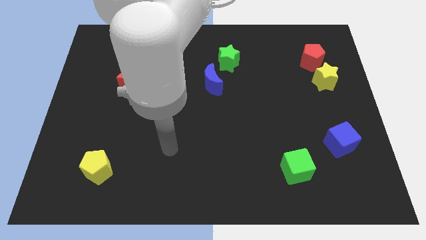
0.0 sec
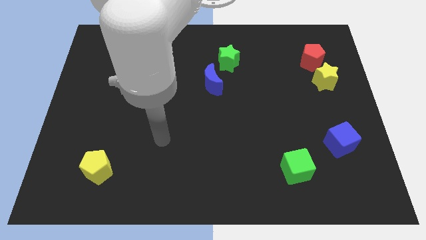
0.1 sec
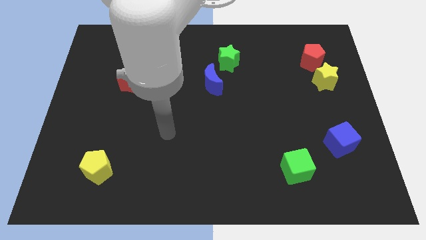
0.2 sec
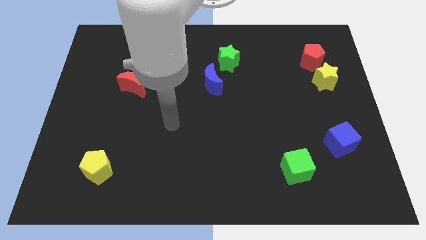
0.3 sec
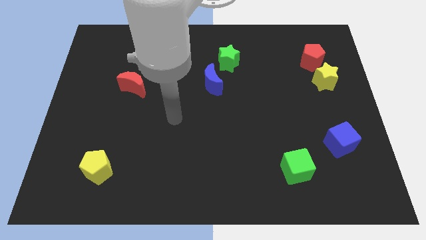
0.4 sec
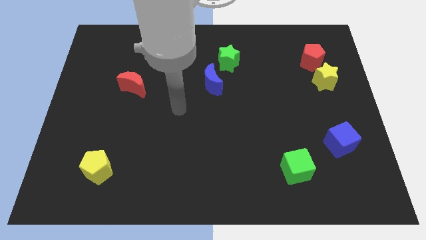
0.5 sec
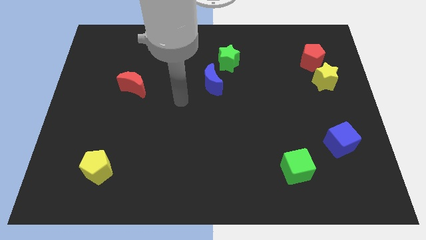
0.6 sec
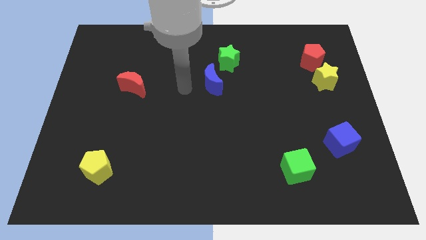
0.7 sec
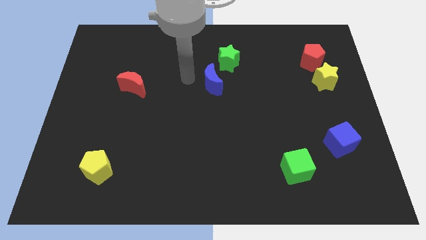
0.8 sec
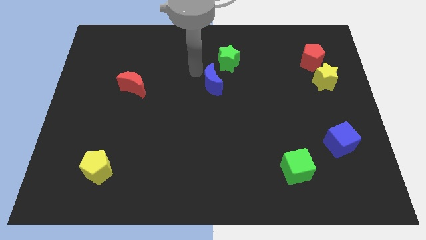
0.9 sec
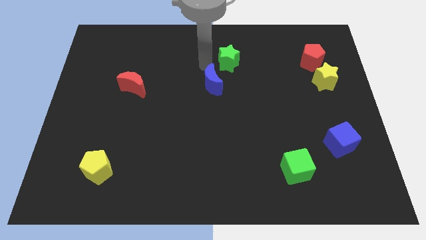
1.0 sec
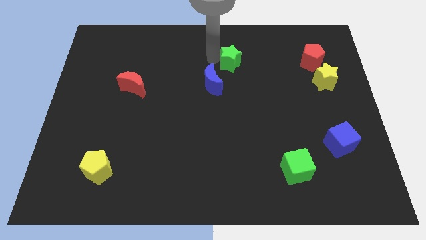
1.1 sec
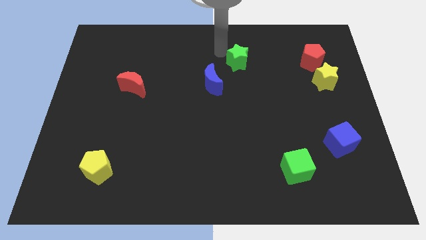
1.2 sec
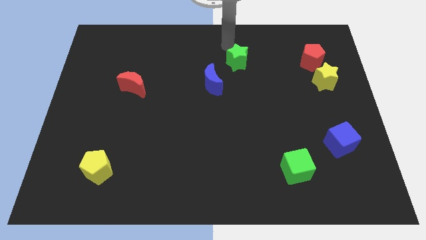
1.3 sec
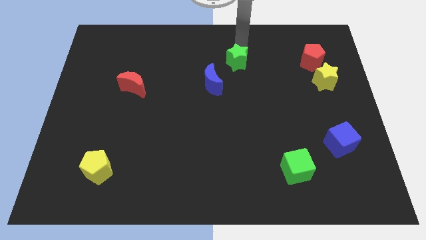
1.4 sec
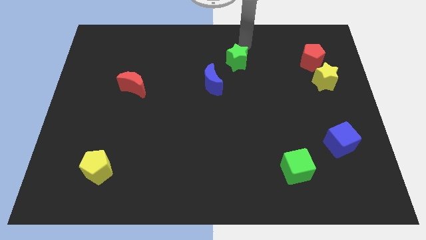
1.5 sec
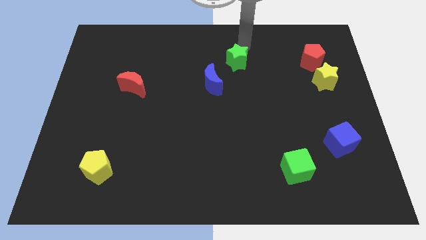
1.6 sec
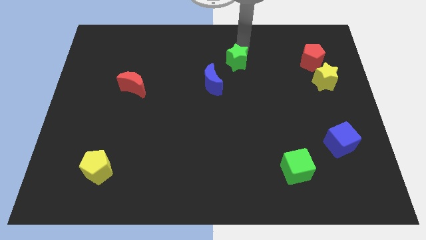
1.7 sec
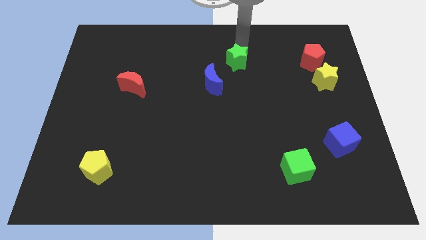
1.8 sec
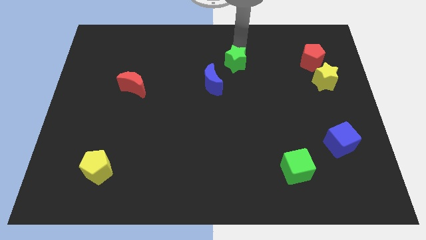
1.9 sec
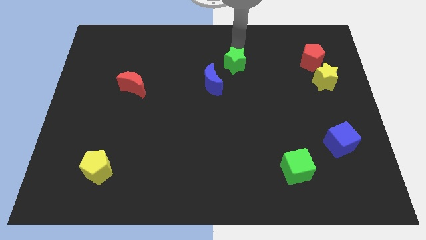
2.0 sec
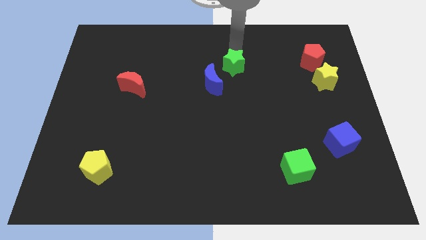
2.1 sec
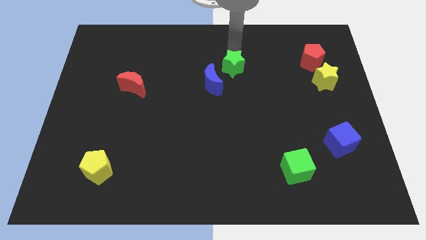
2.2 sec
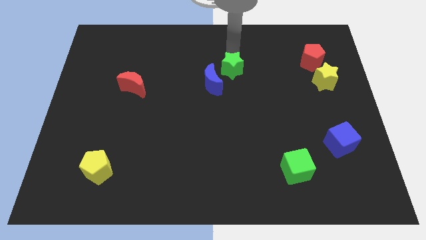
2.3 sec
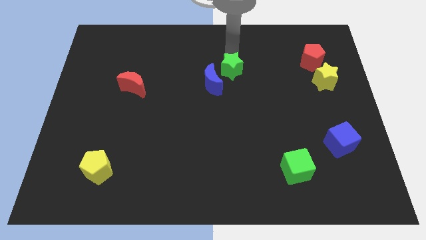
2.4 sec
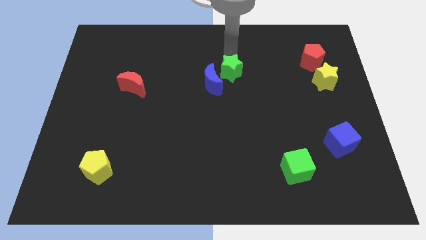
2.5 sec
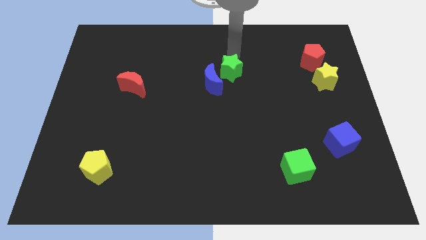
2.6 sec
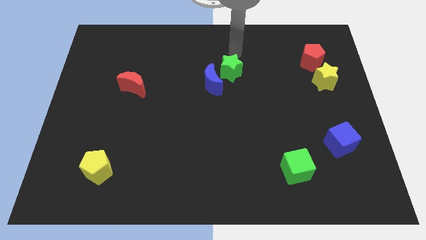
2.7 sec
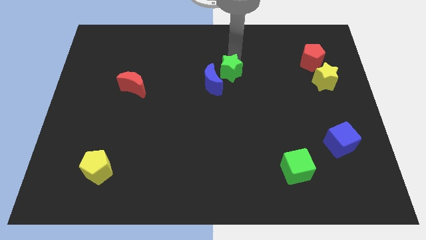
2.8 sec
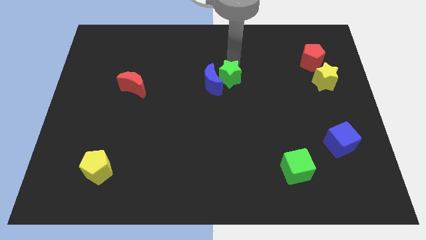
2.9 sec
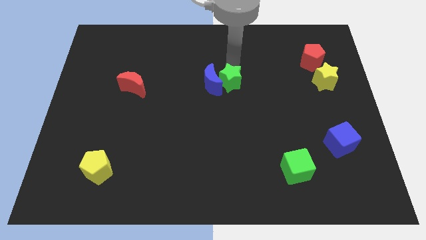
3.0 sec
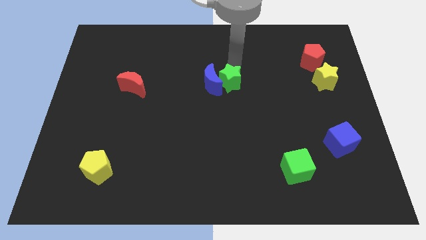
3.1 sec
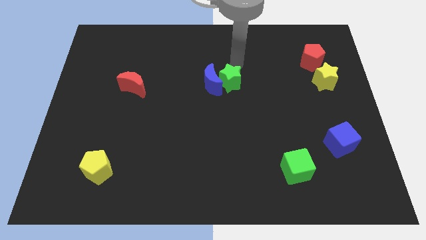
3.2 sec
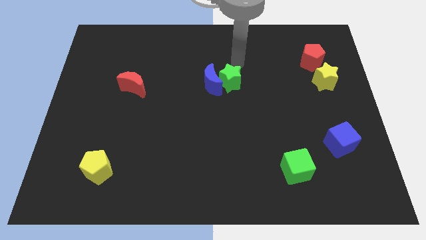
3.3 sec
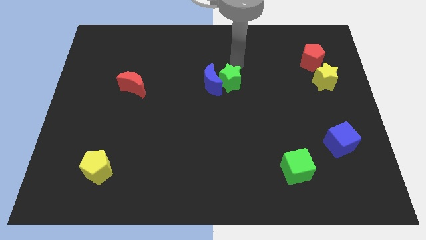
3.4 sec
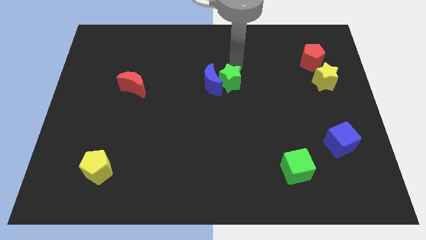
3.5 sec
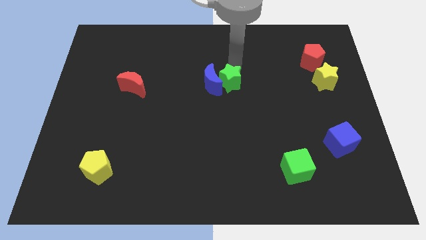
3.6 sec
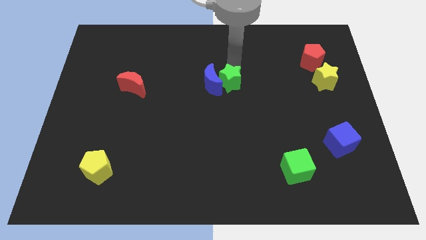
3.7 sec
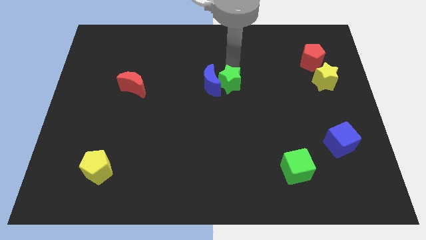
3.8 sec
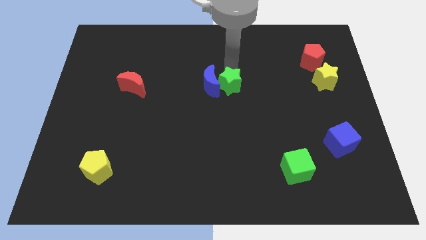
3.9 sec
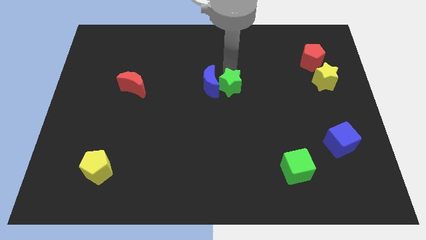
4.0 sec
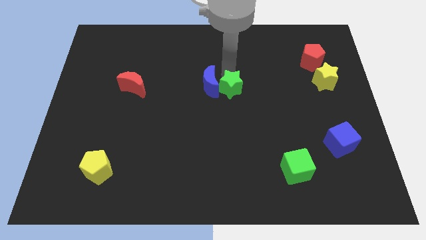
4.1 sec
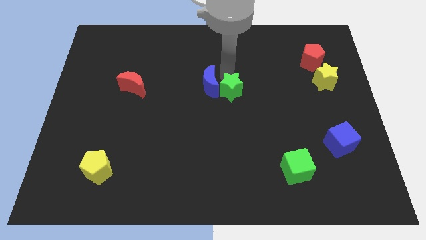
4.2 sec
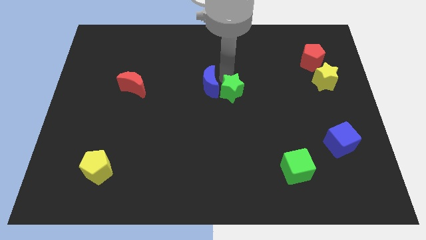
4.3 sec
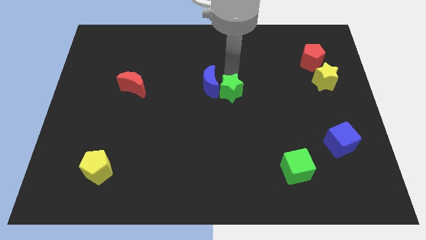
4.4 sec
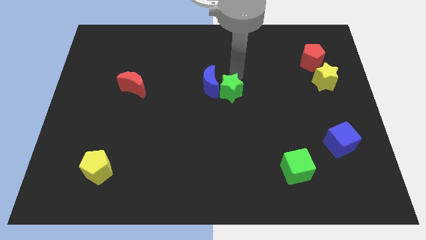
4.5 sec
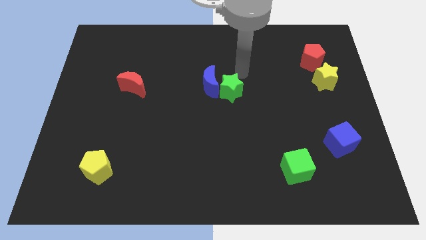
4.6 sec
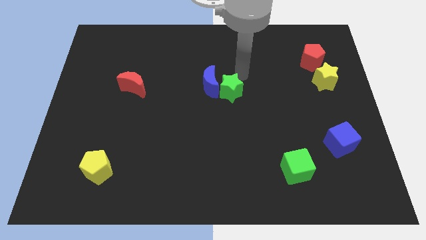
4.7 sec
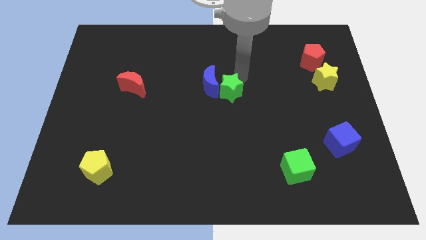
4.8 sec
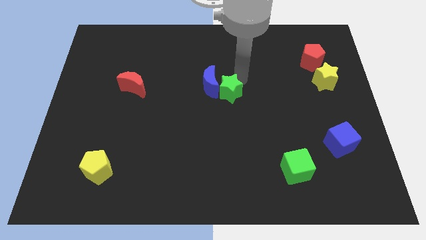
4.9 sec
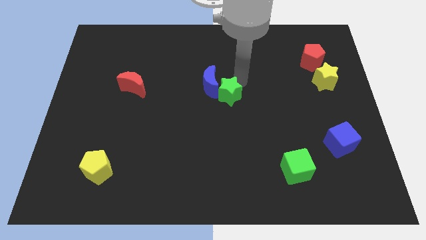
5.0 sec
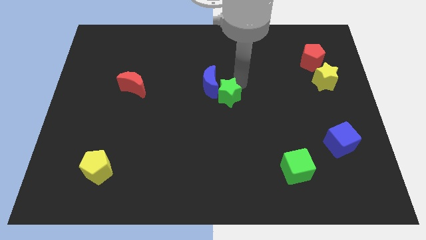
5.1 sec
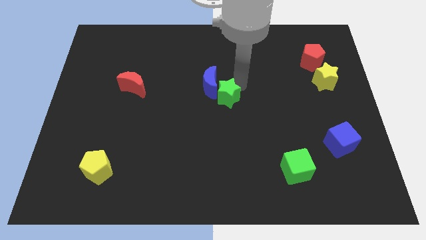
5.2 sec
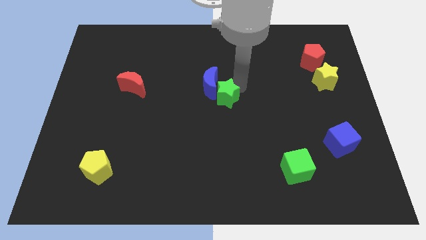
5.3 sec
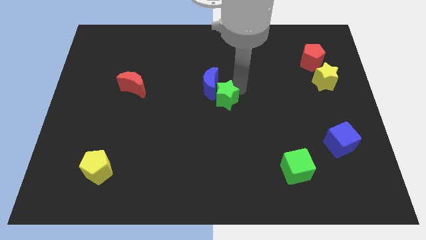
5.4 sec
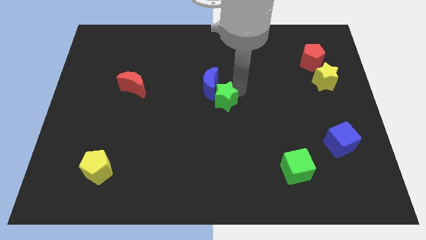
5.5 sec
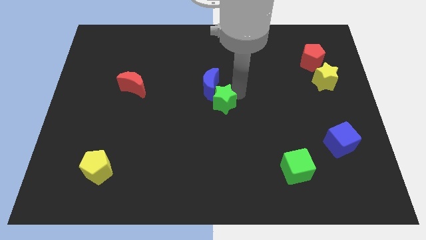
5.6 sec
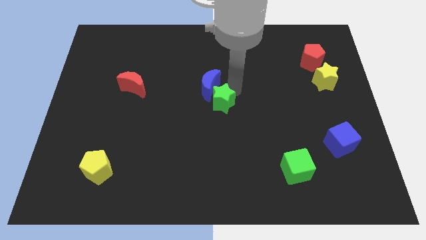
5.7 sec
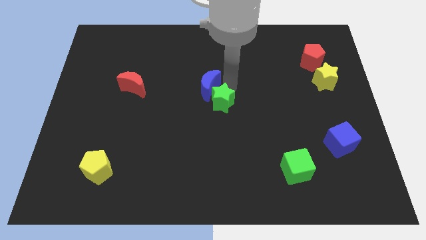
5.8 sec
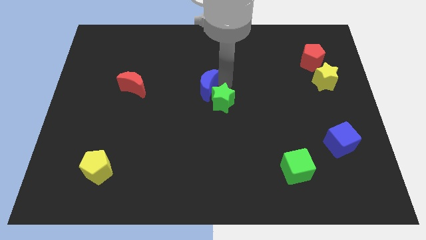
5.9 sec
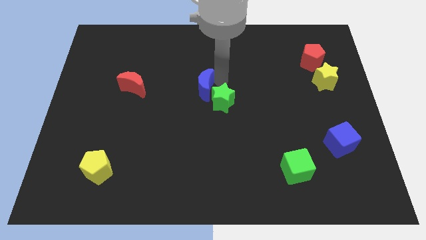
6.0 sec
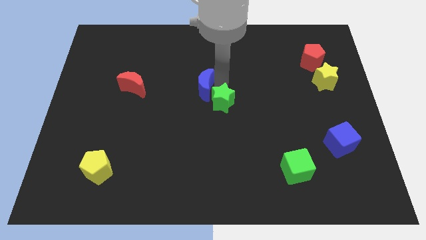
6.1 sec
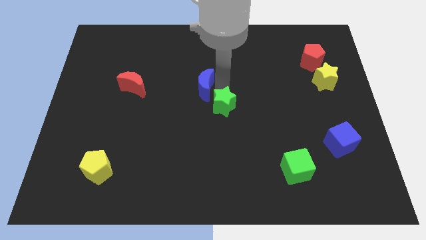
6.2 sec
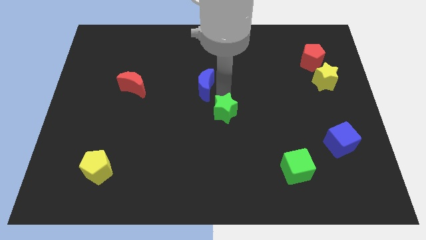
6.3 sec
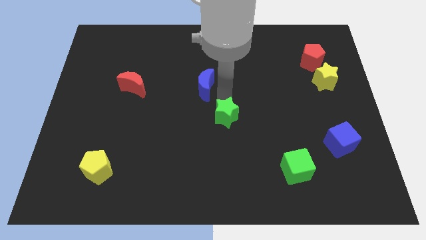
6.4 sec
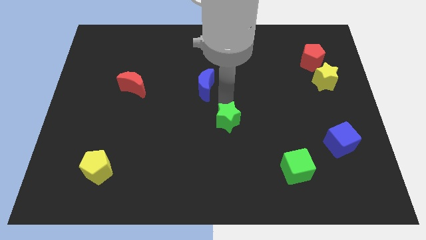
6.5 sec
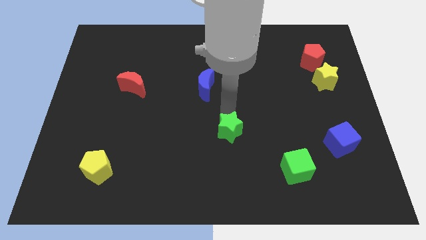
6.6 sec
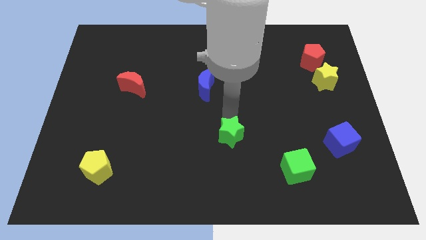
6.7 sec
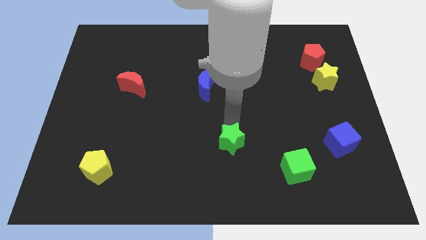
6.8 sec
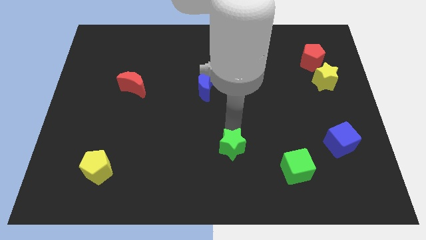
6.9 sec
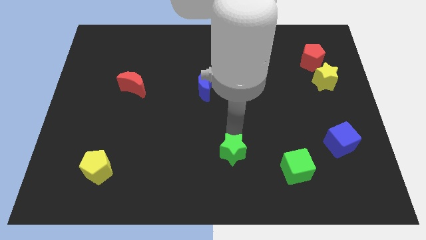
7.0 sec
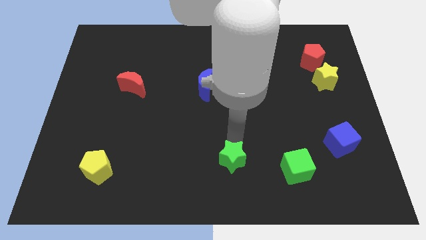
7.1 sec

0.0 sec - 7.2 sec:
push the green star to the bottom side
